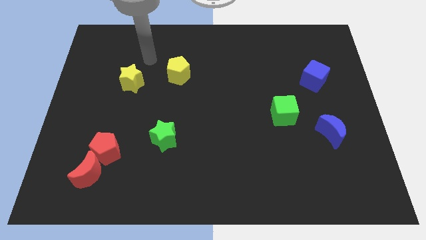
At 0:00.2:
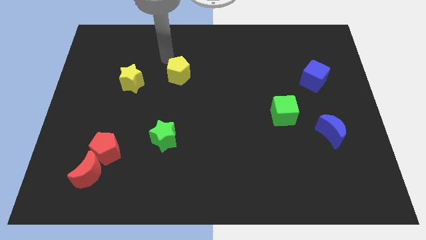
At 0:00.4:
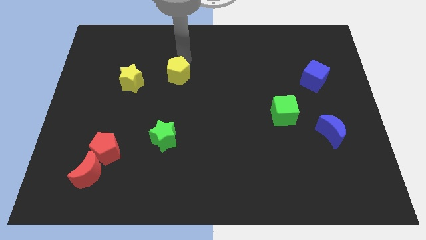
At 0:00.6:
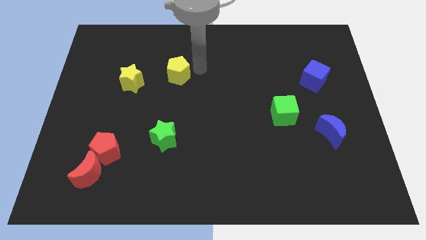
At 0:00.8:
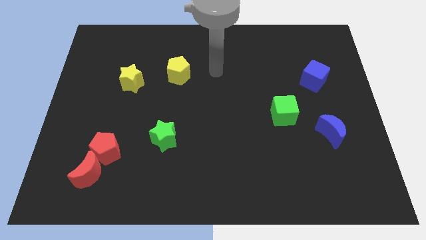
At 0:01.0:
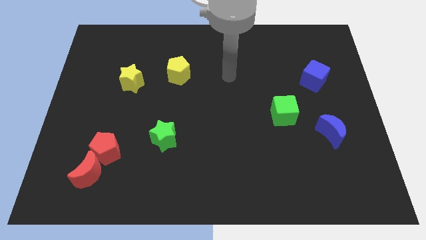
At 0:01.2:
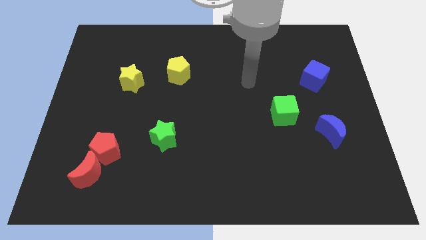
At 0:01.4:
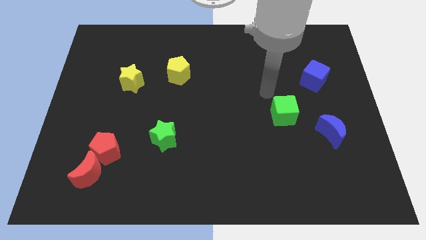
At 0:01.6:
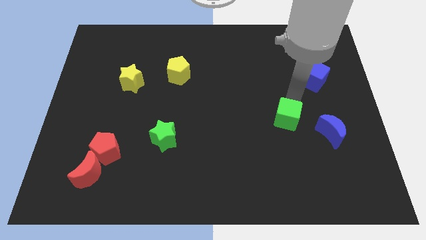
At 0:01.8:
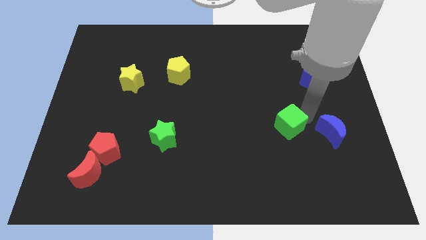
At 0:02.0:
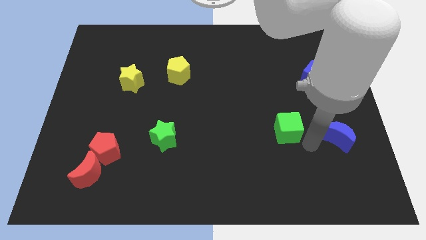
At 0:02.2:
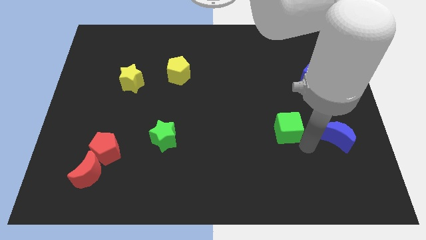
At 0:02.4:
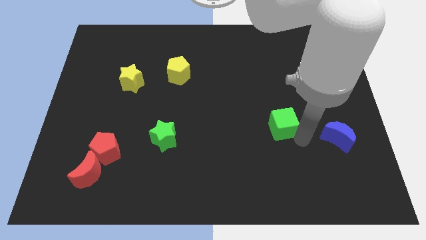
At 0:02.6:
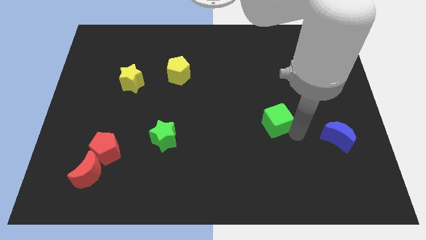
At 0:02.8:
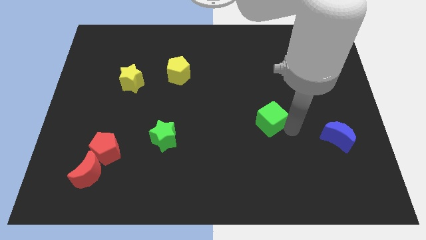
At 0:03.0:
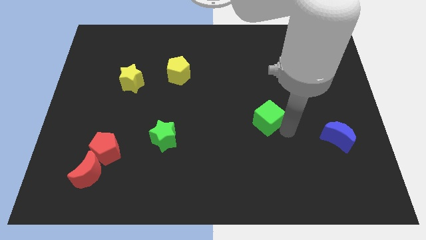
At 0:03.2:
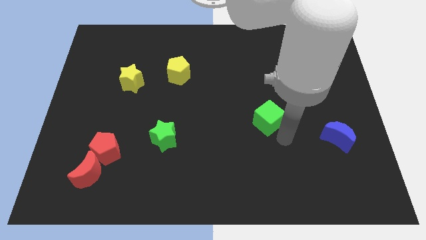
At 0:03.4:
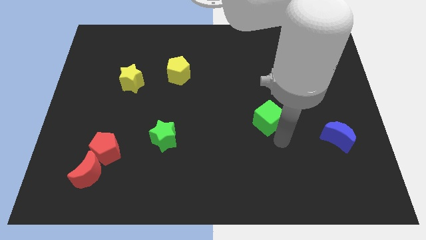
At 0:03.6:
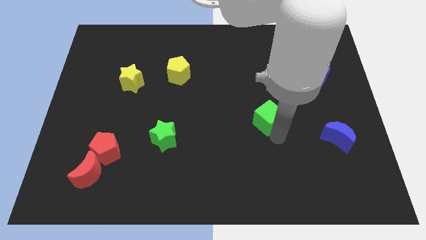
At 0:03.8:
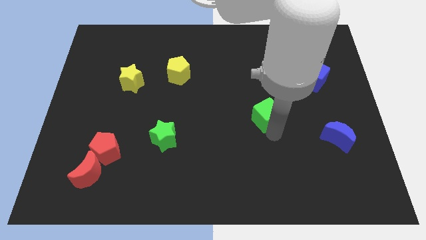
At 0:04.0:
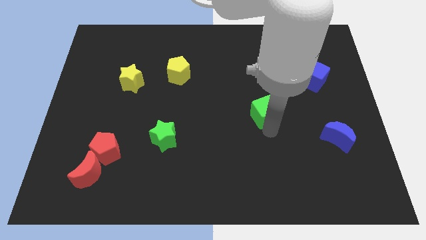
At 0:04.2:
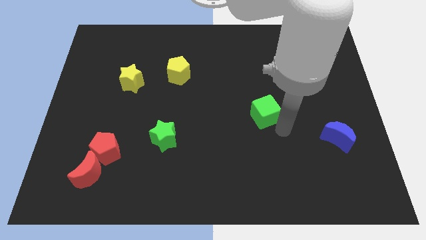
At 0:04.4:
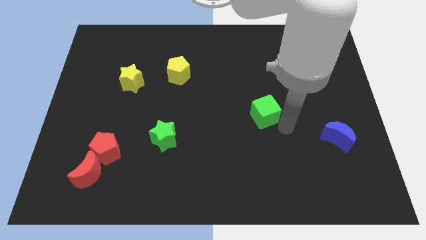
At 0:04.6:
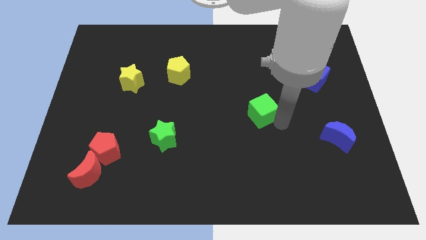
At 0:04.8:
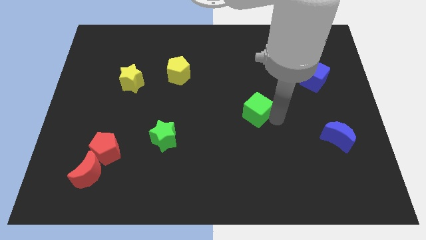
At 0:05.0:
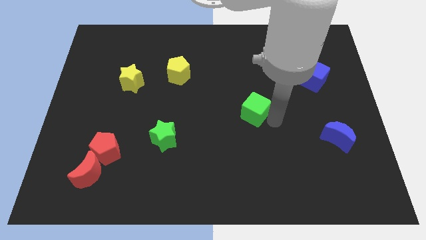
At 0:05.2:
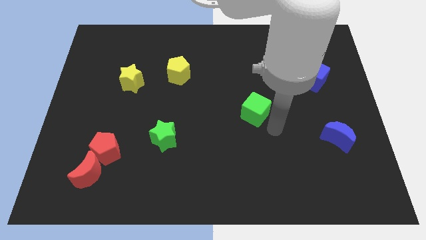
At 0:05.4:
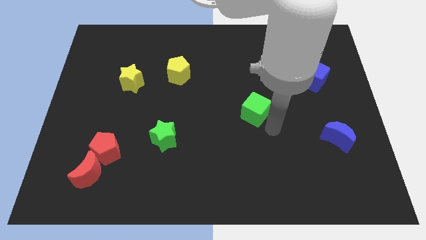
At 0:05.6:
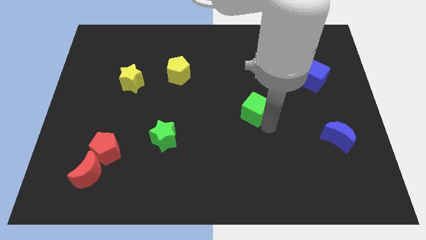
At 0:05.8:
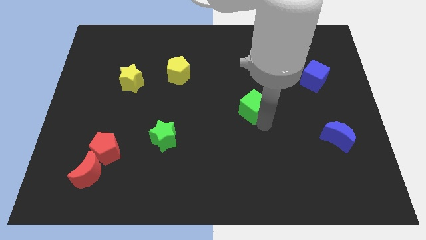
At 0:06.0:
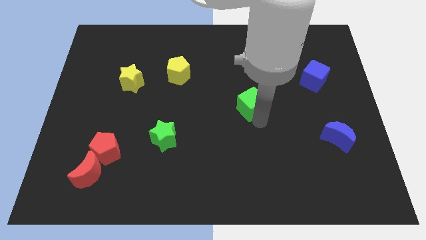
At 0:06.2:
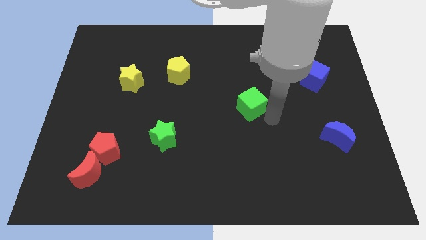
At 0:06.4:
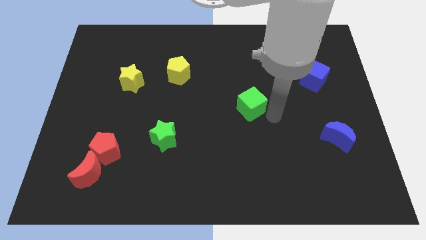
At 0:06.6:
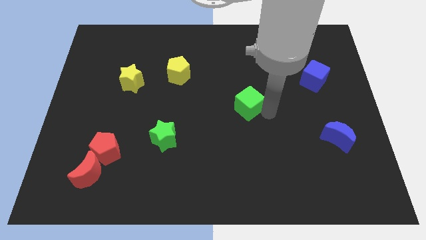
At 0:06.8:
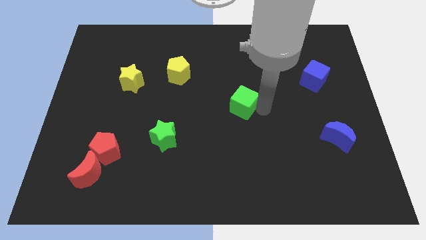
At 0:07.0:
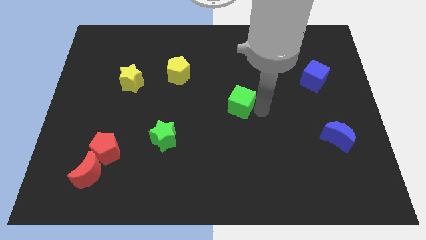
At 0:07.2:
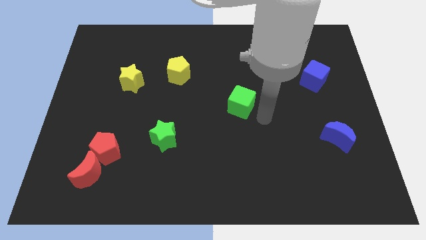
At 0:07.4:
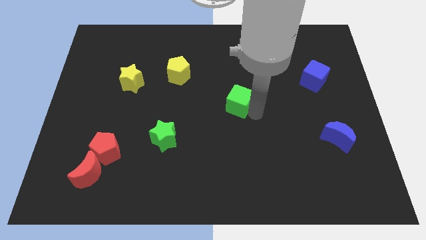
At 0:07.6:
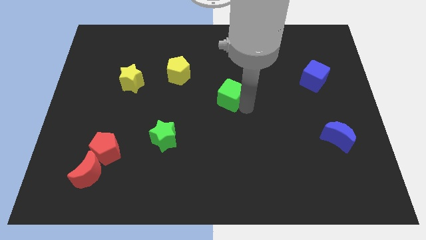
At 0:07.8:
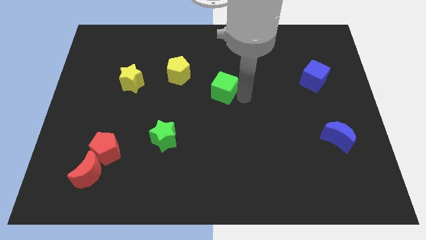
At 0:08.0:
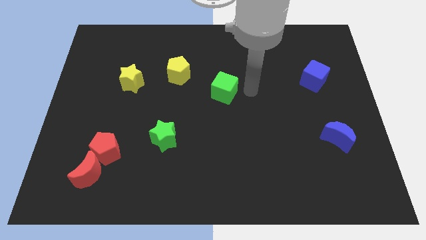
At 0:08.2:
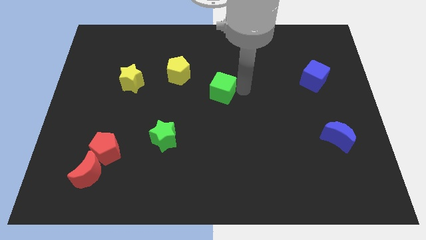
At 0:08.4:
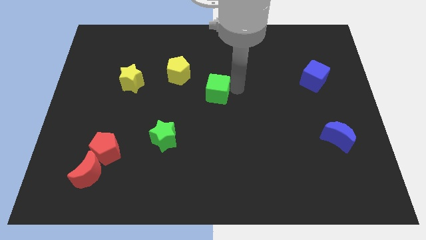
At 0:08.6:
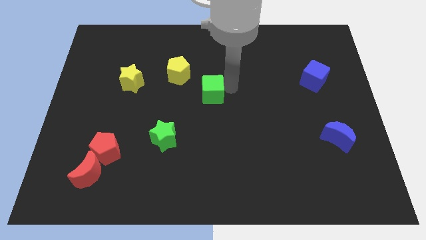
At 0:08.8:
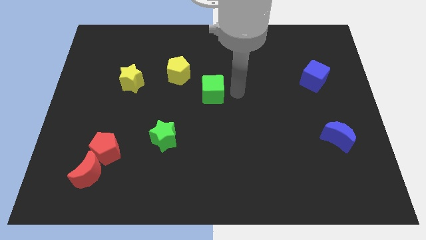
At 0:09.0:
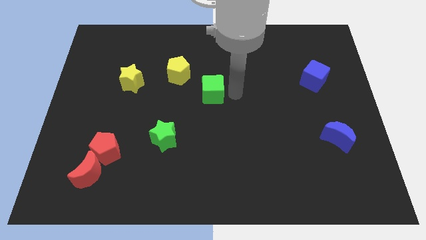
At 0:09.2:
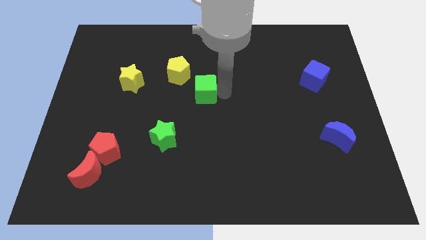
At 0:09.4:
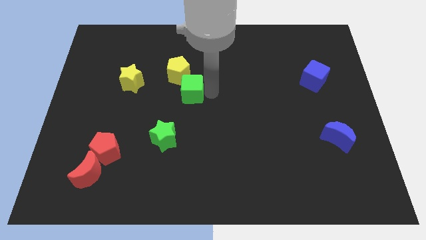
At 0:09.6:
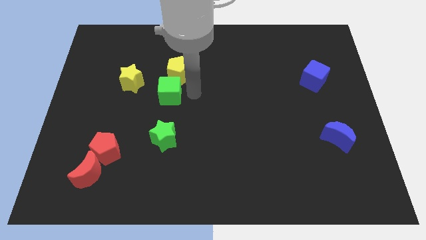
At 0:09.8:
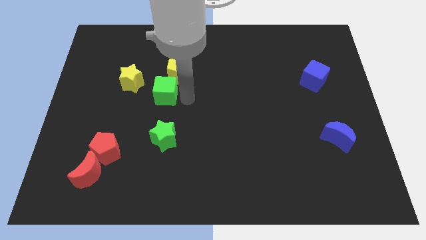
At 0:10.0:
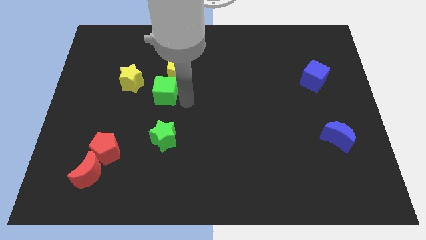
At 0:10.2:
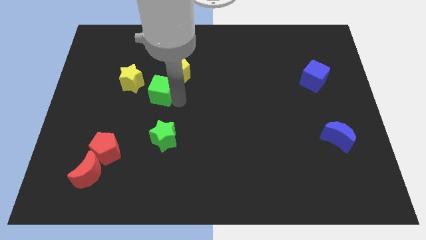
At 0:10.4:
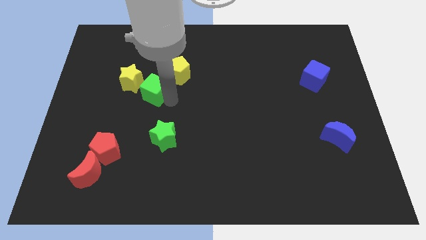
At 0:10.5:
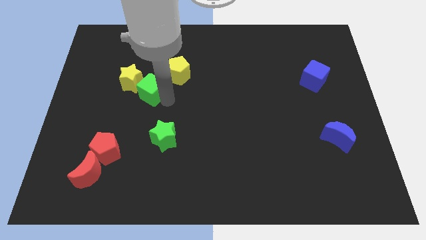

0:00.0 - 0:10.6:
slide the green cube to the yellow star

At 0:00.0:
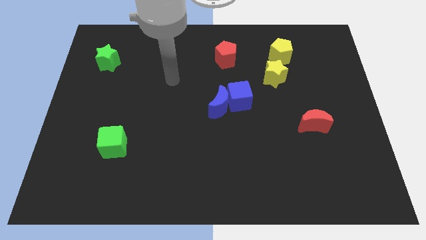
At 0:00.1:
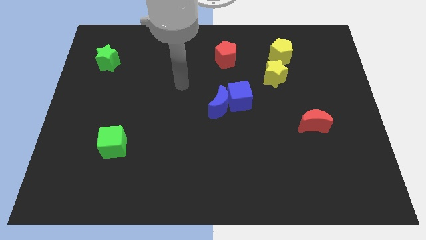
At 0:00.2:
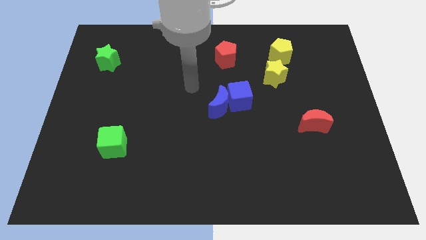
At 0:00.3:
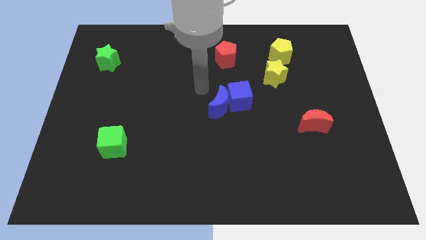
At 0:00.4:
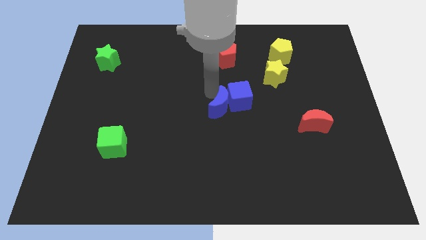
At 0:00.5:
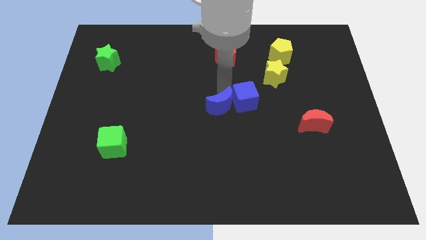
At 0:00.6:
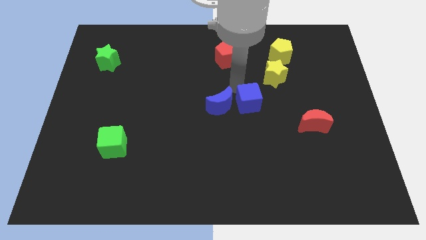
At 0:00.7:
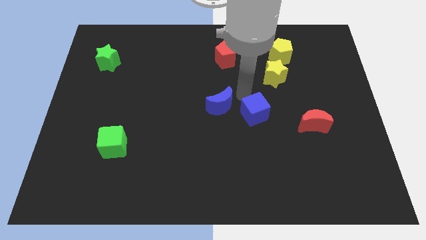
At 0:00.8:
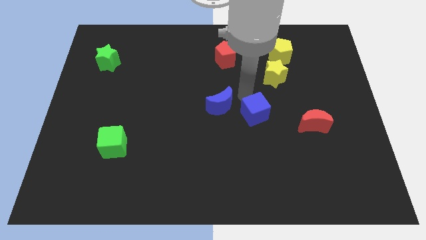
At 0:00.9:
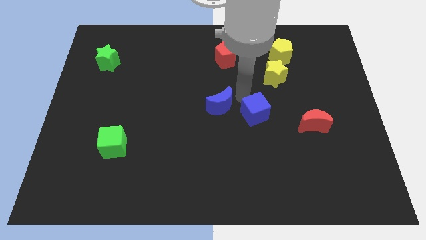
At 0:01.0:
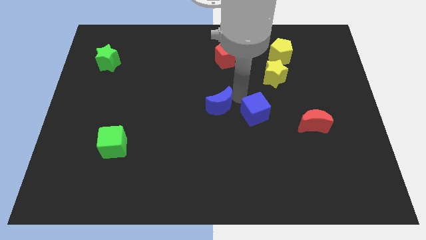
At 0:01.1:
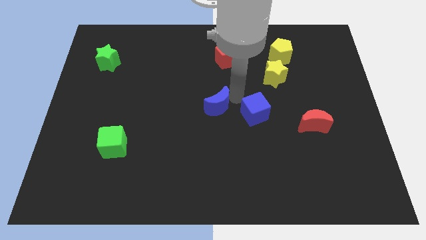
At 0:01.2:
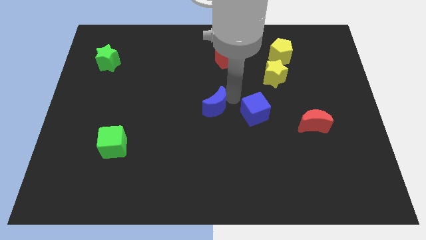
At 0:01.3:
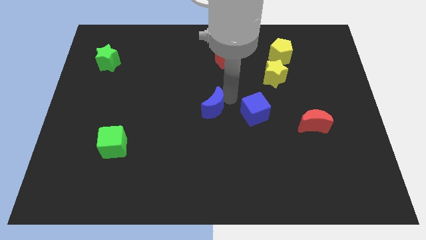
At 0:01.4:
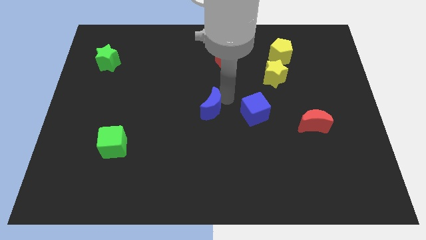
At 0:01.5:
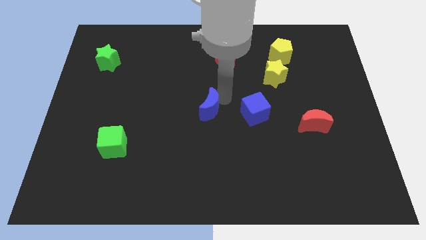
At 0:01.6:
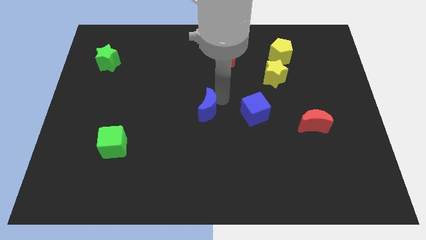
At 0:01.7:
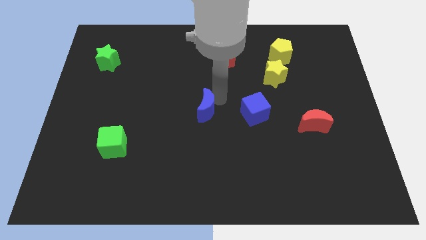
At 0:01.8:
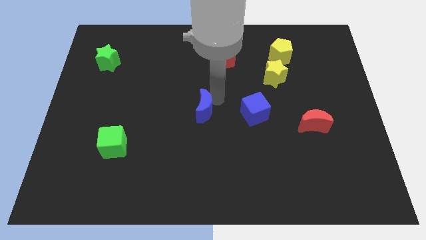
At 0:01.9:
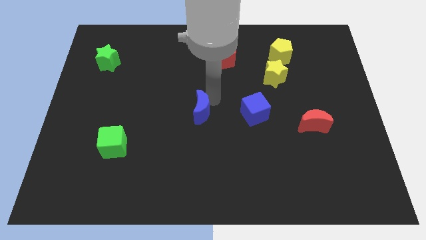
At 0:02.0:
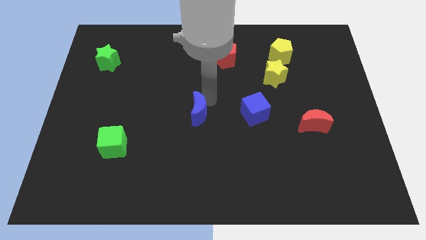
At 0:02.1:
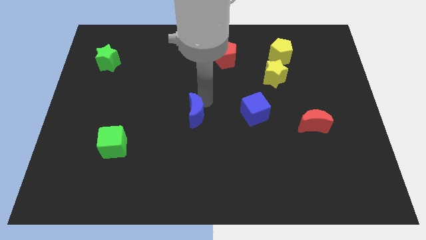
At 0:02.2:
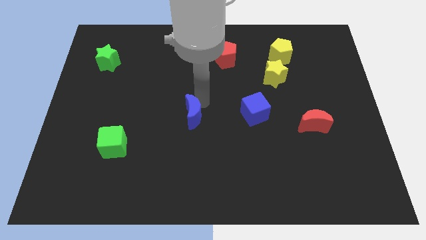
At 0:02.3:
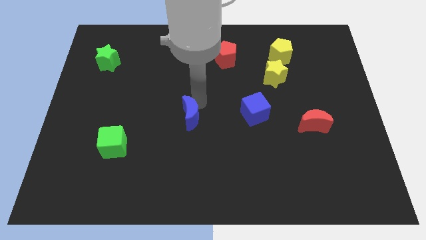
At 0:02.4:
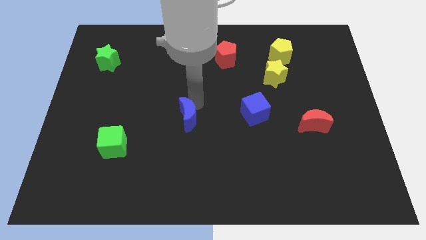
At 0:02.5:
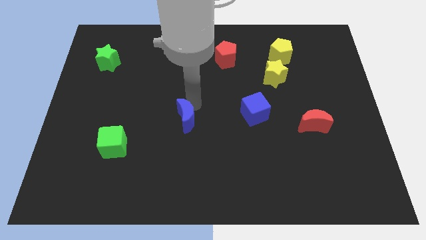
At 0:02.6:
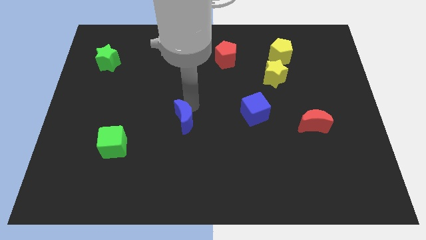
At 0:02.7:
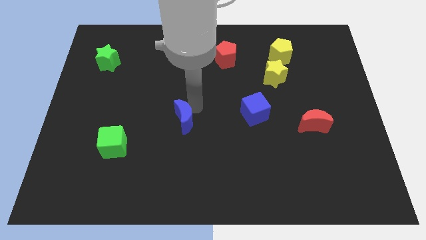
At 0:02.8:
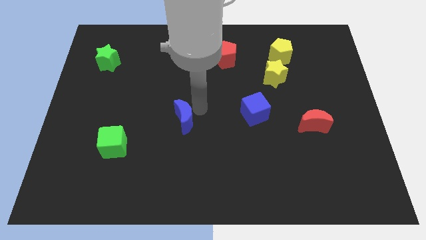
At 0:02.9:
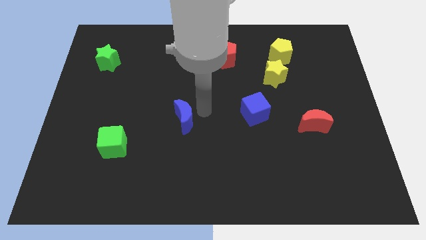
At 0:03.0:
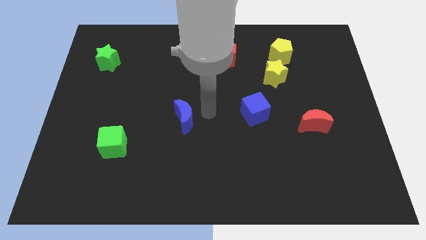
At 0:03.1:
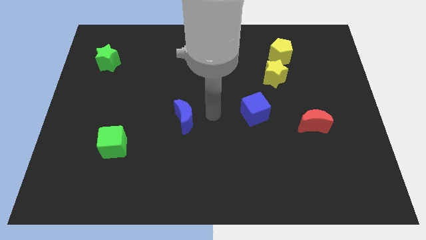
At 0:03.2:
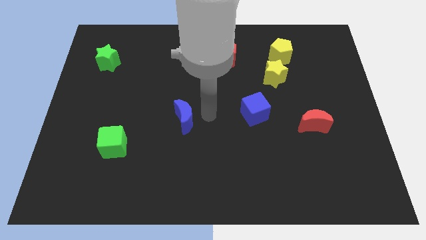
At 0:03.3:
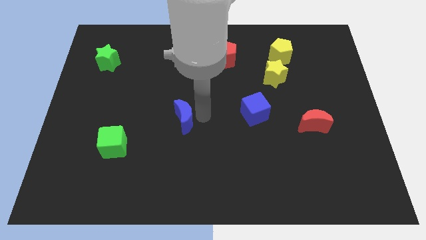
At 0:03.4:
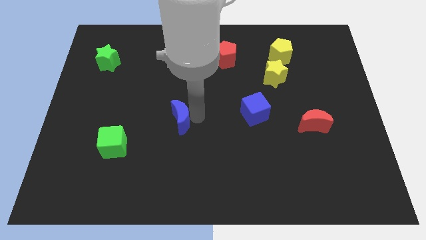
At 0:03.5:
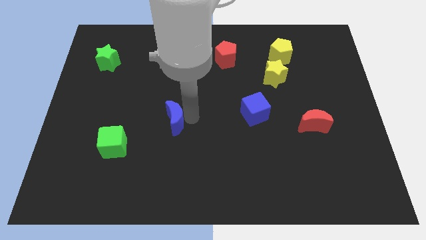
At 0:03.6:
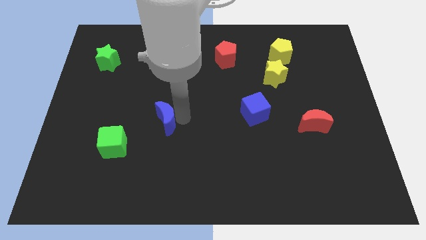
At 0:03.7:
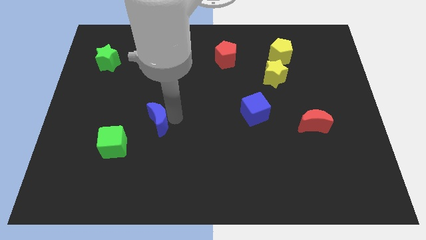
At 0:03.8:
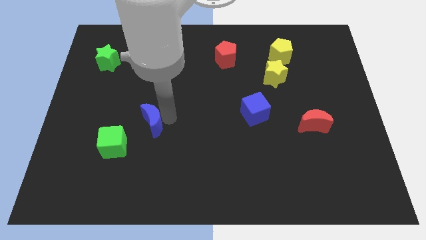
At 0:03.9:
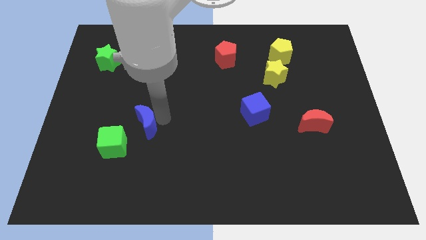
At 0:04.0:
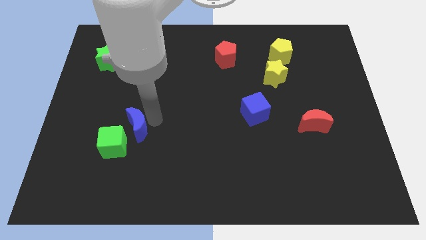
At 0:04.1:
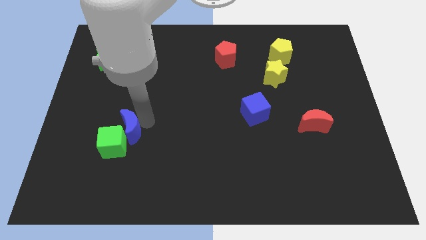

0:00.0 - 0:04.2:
move the blue moon next to the green cube
